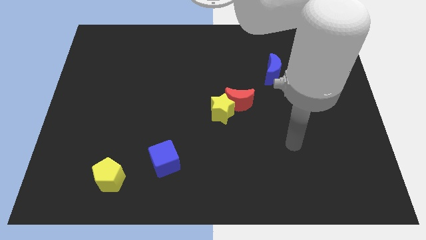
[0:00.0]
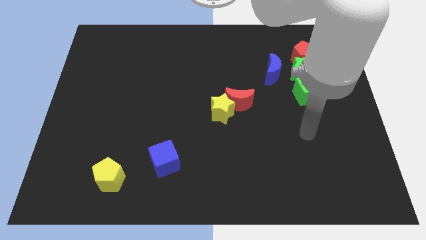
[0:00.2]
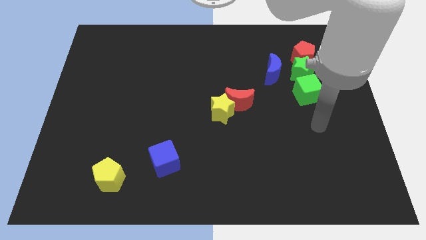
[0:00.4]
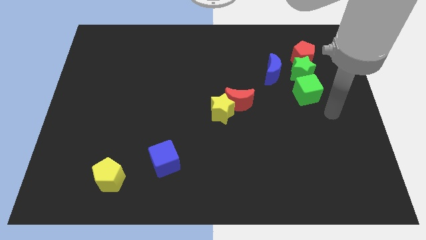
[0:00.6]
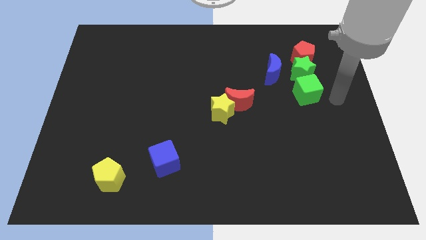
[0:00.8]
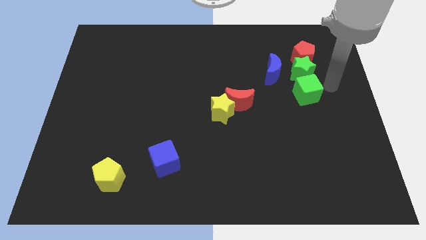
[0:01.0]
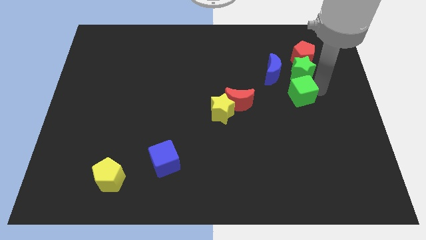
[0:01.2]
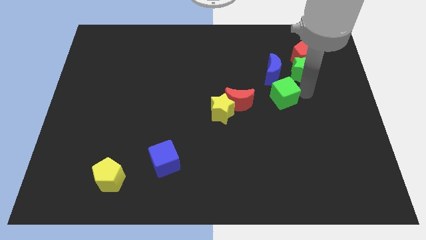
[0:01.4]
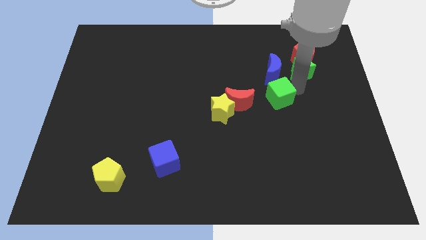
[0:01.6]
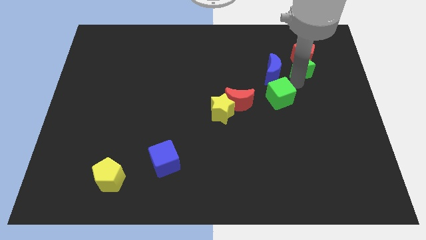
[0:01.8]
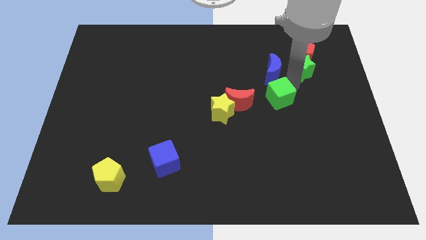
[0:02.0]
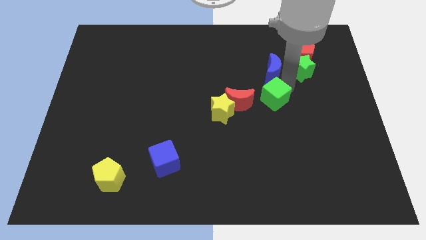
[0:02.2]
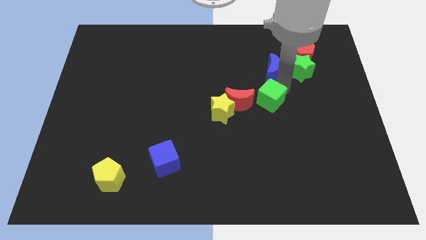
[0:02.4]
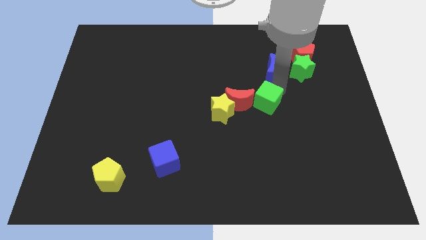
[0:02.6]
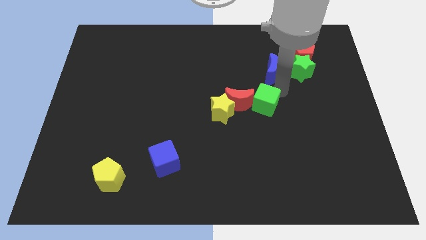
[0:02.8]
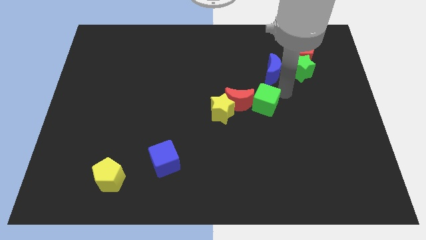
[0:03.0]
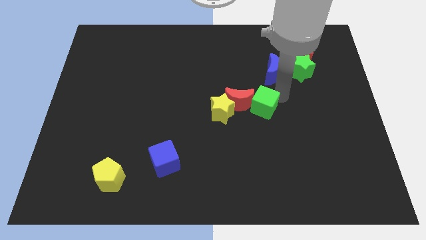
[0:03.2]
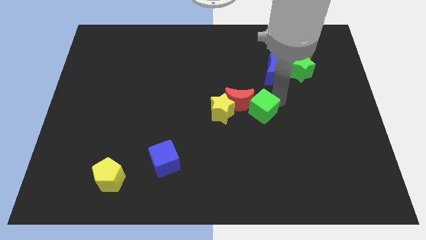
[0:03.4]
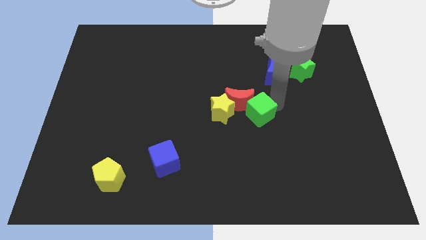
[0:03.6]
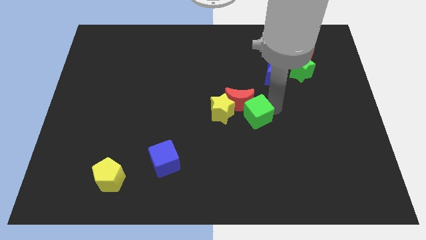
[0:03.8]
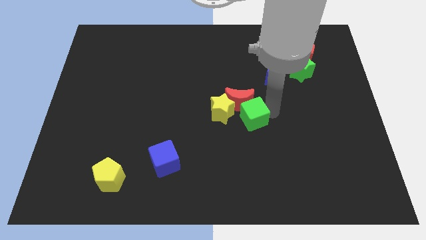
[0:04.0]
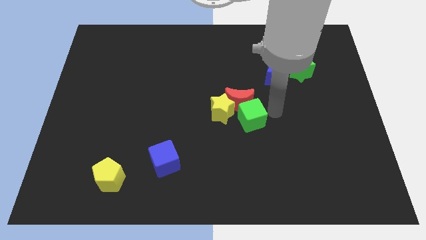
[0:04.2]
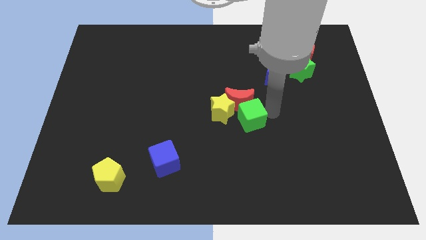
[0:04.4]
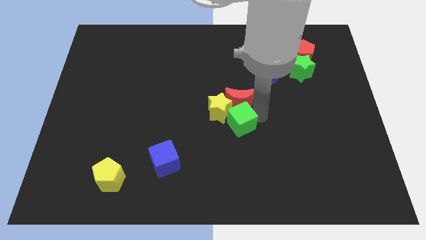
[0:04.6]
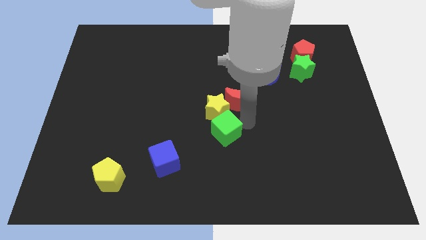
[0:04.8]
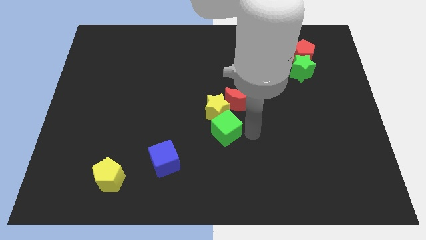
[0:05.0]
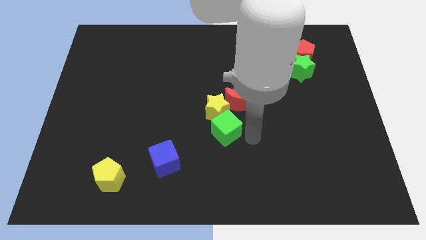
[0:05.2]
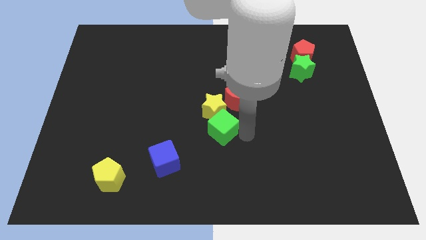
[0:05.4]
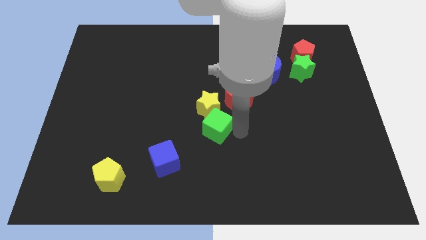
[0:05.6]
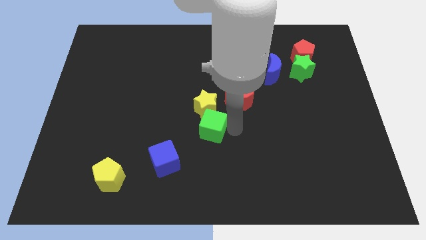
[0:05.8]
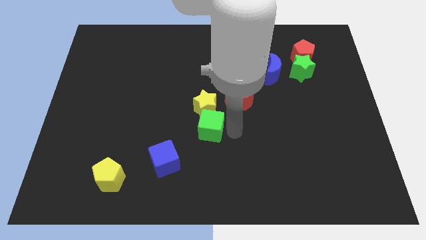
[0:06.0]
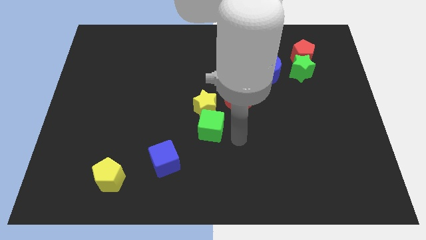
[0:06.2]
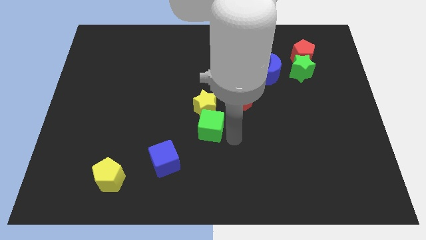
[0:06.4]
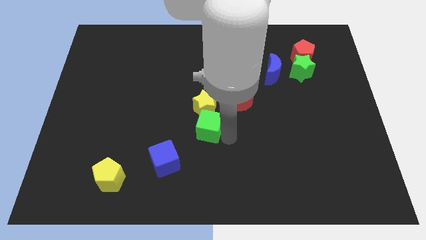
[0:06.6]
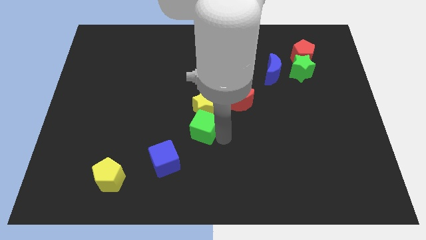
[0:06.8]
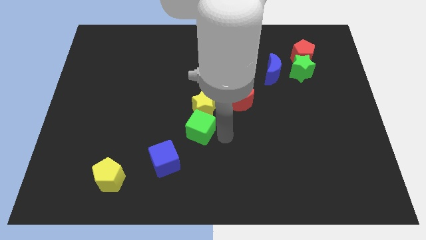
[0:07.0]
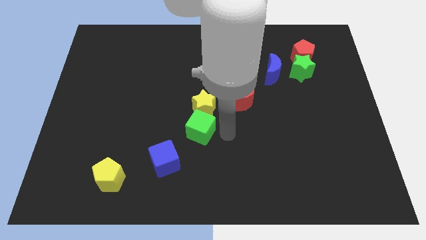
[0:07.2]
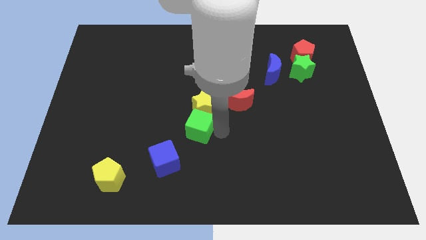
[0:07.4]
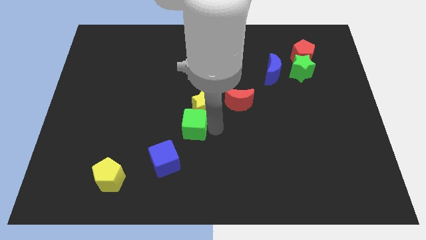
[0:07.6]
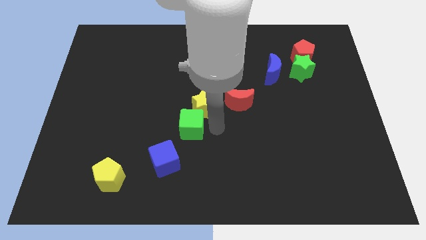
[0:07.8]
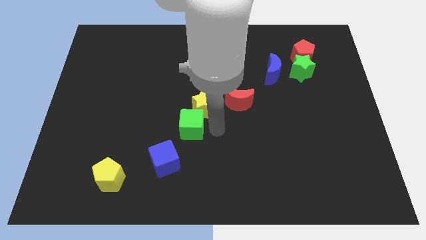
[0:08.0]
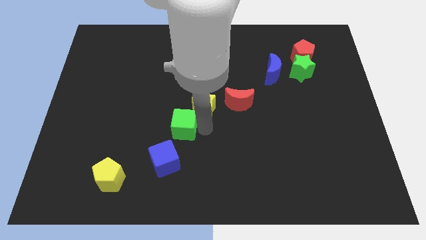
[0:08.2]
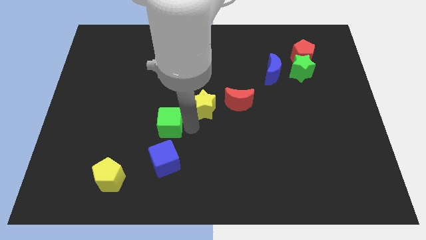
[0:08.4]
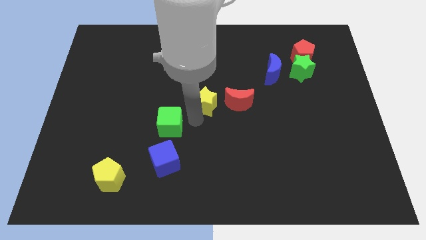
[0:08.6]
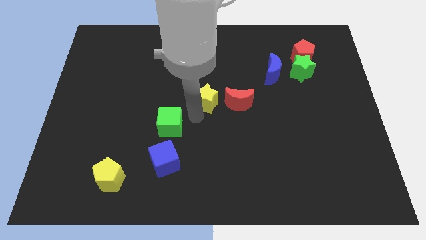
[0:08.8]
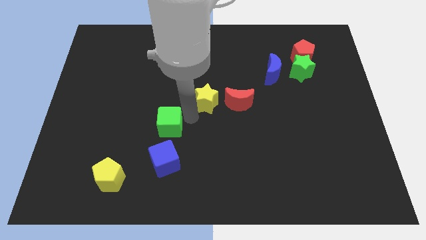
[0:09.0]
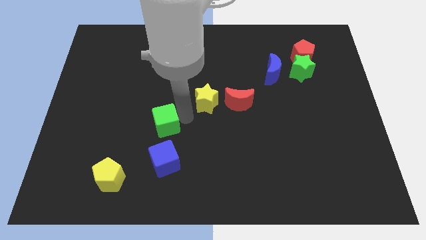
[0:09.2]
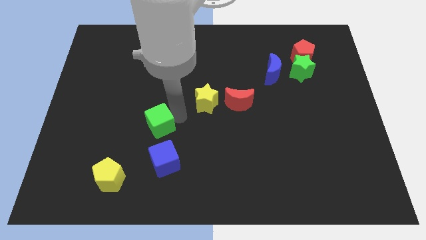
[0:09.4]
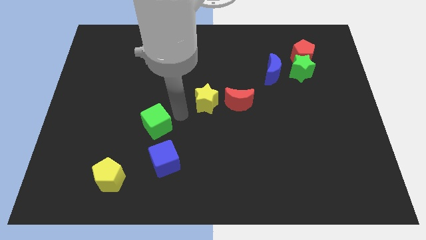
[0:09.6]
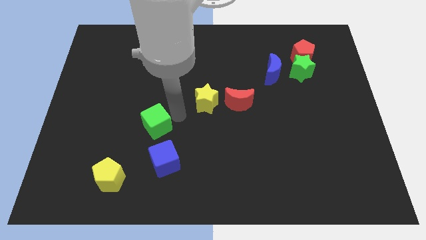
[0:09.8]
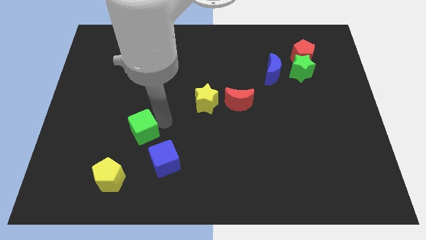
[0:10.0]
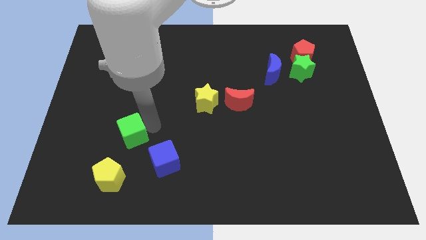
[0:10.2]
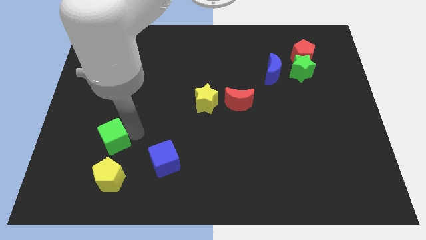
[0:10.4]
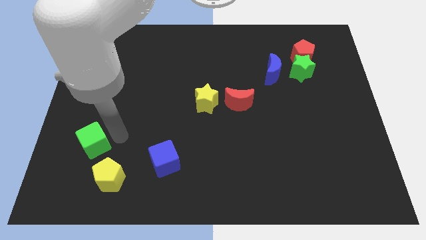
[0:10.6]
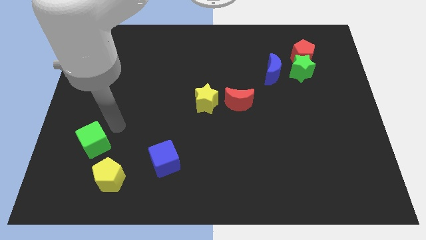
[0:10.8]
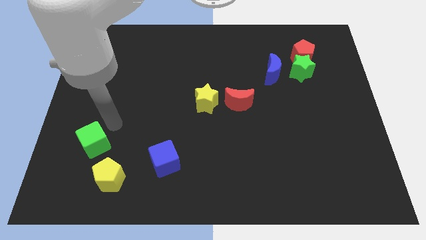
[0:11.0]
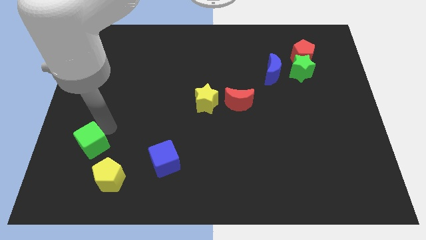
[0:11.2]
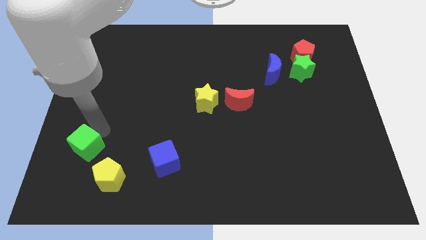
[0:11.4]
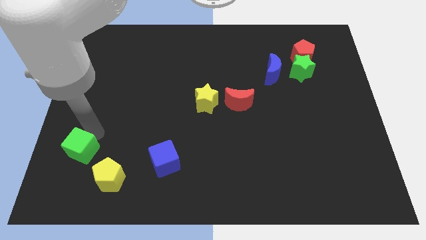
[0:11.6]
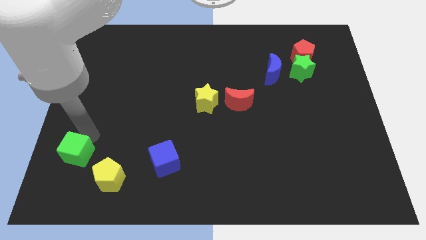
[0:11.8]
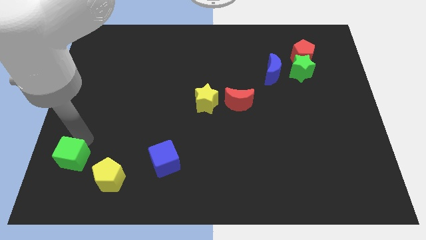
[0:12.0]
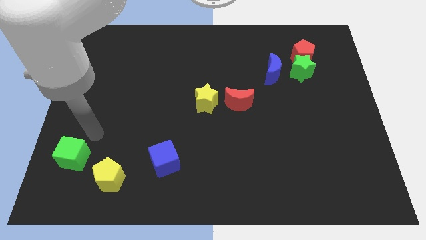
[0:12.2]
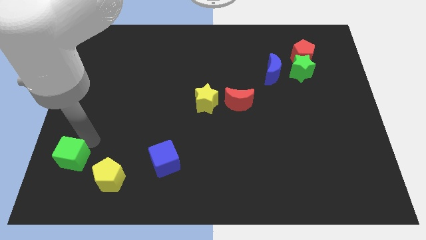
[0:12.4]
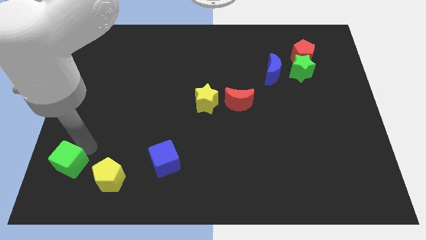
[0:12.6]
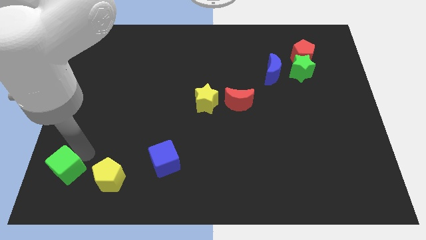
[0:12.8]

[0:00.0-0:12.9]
slide the green cube to the bottom left of the board
